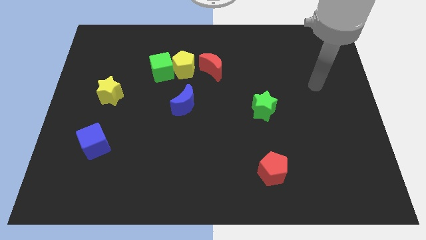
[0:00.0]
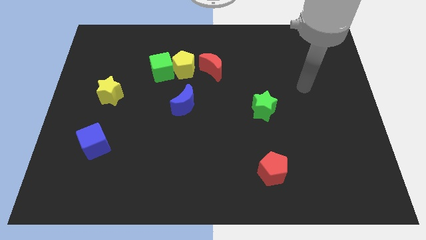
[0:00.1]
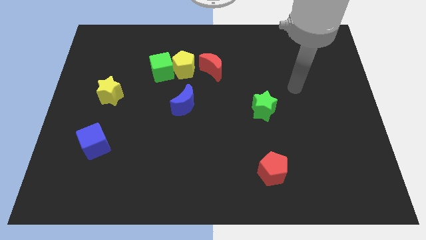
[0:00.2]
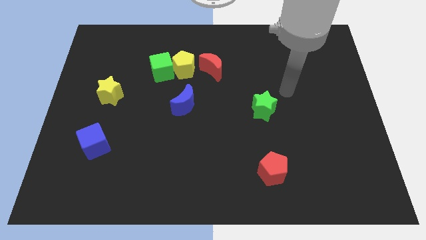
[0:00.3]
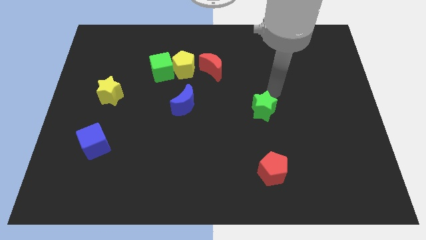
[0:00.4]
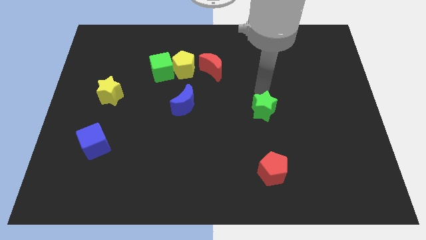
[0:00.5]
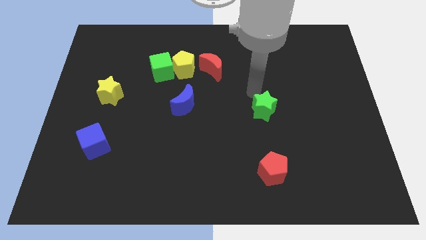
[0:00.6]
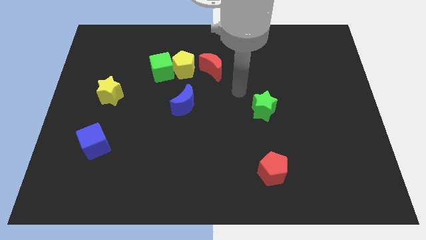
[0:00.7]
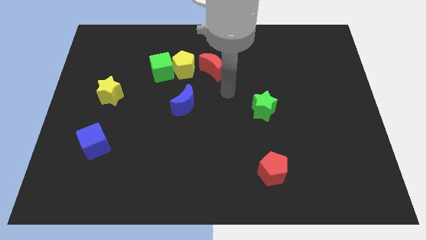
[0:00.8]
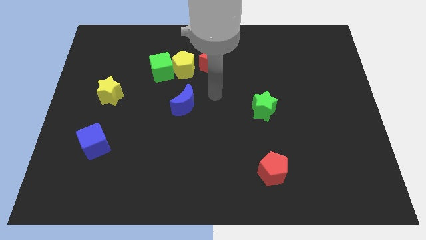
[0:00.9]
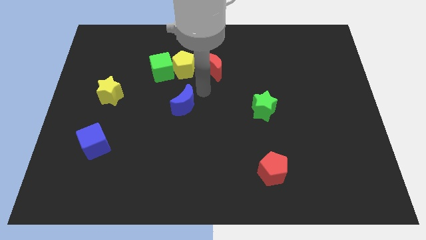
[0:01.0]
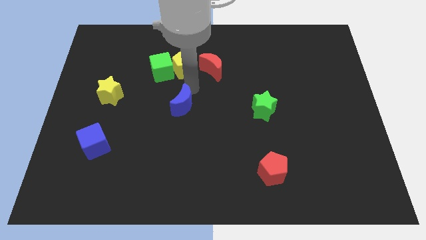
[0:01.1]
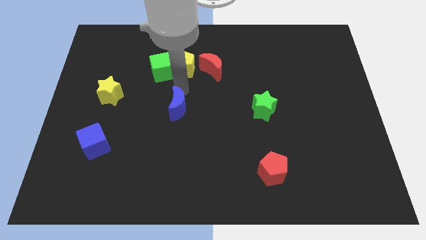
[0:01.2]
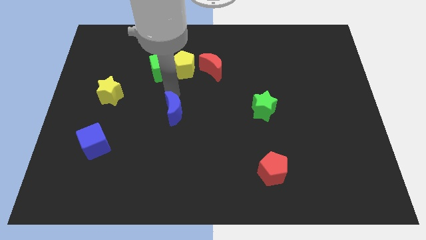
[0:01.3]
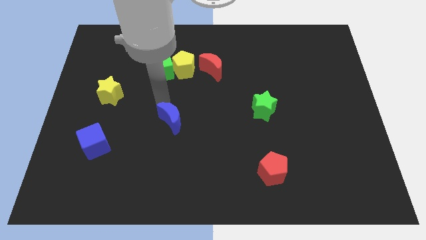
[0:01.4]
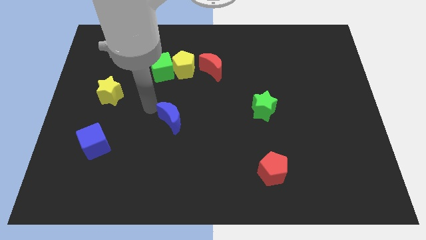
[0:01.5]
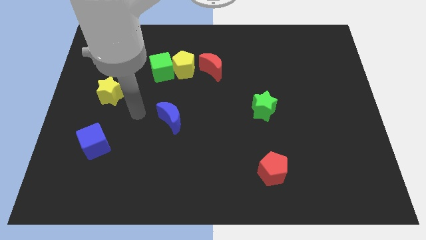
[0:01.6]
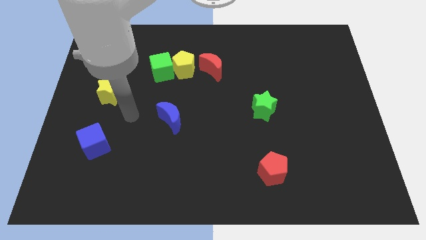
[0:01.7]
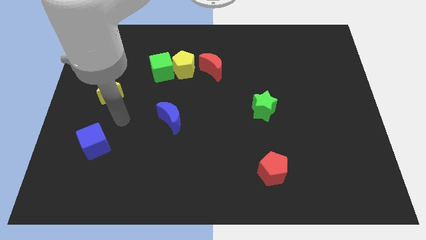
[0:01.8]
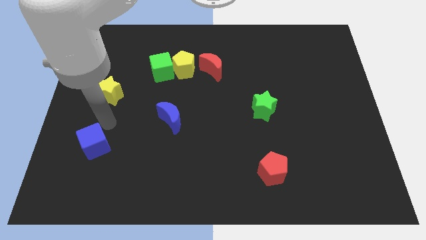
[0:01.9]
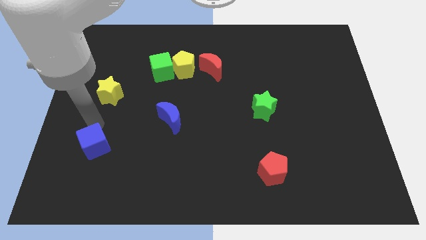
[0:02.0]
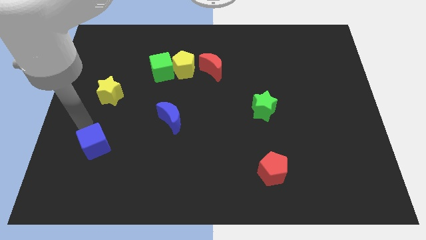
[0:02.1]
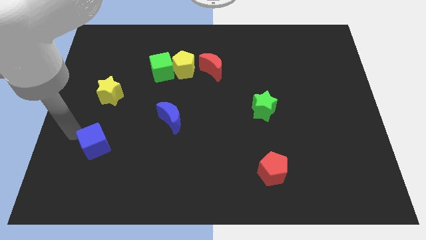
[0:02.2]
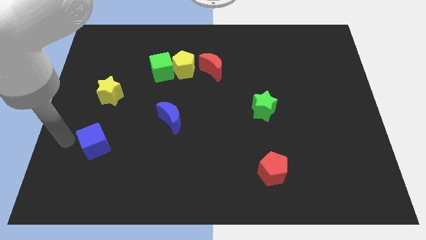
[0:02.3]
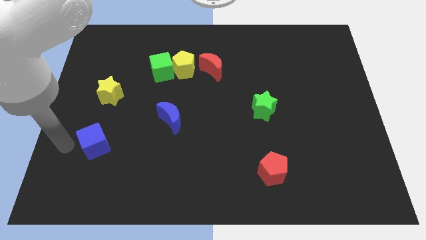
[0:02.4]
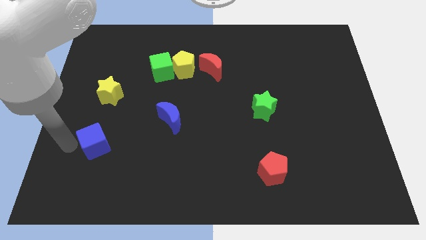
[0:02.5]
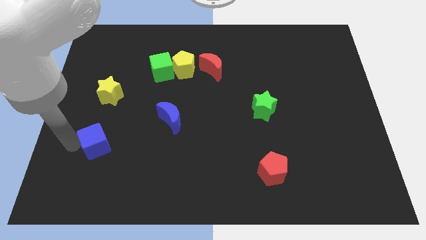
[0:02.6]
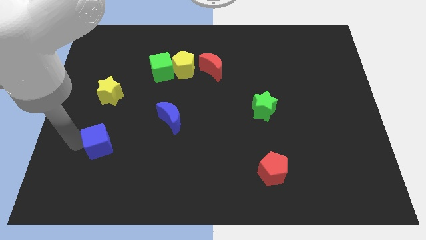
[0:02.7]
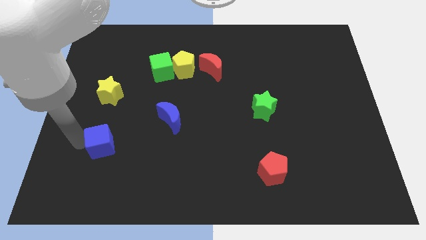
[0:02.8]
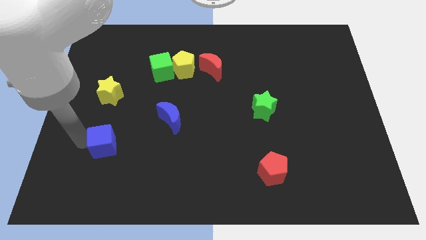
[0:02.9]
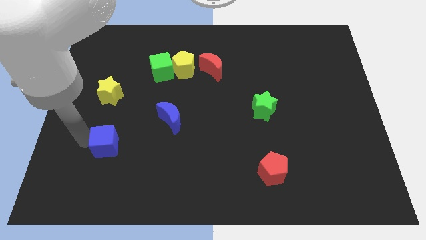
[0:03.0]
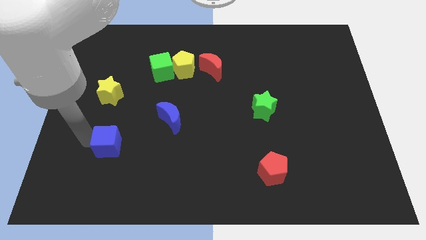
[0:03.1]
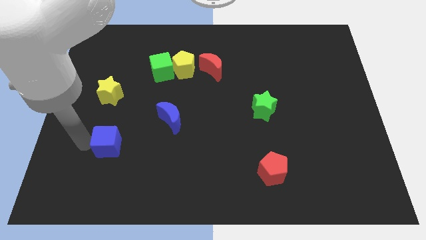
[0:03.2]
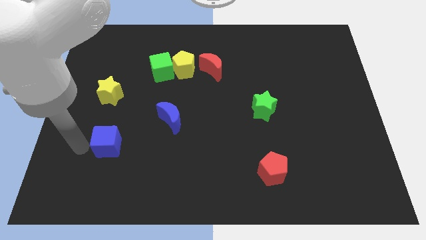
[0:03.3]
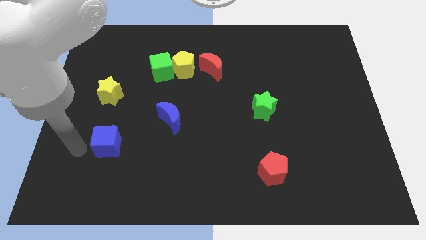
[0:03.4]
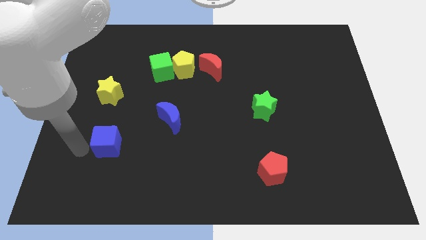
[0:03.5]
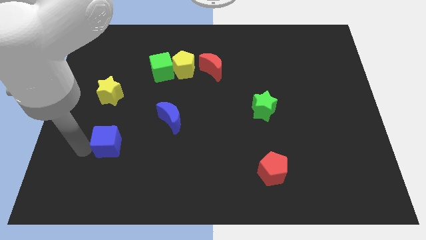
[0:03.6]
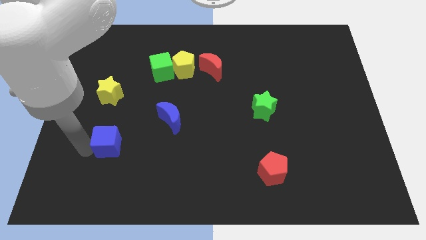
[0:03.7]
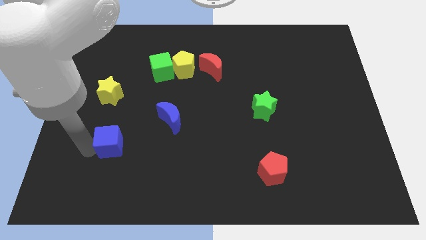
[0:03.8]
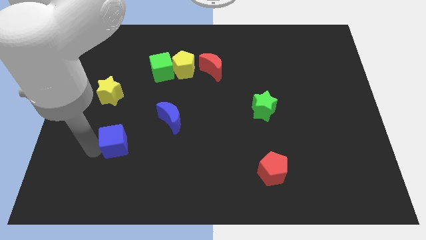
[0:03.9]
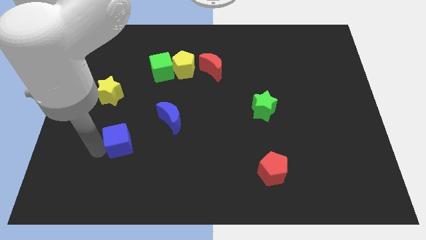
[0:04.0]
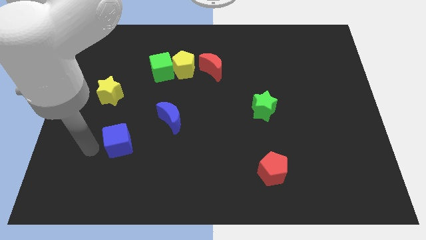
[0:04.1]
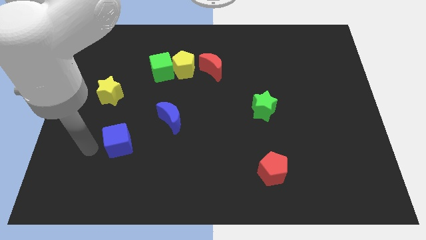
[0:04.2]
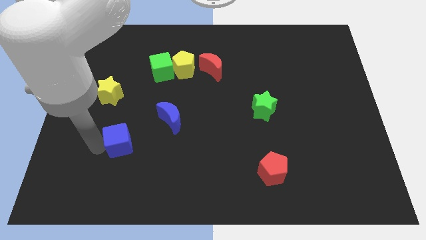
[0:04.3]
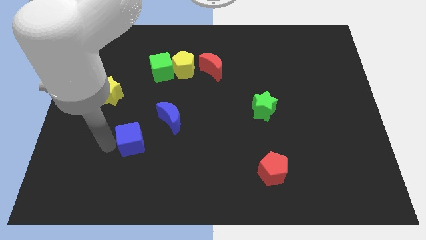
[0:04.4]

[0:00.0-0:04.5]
slide the blue cube to the right a little bit

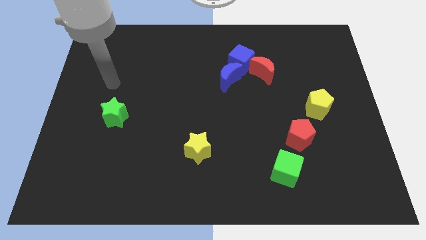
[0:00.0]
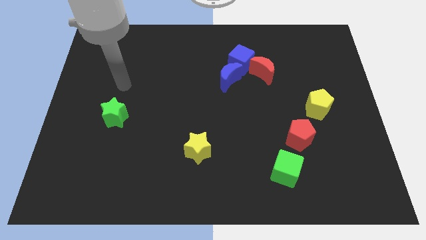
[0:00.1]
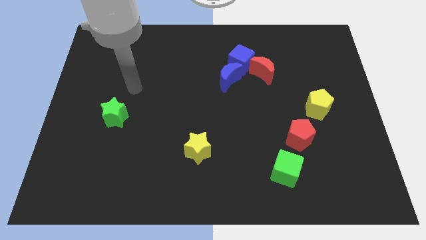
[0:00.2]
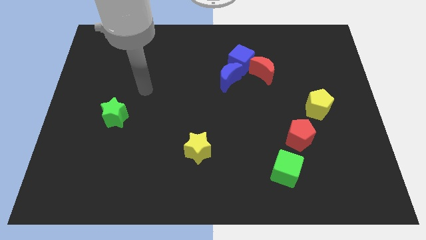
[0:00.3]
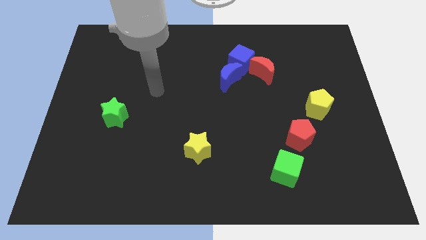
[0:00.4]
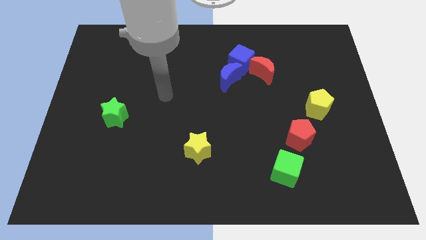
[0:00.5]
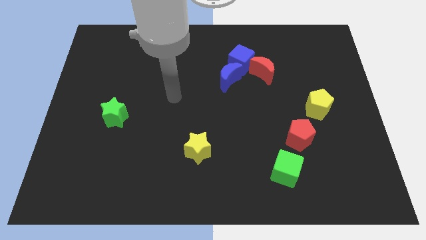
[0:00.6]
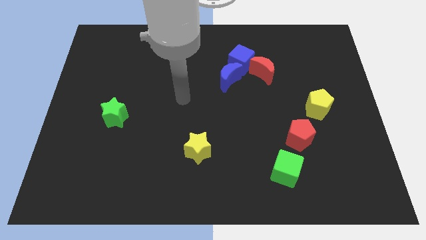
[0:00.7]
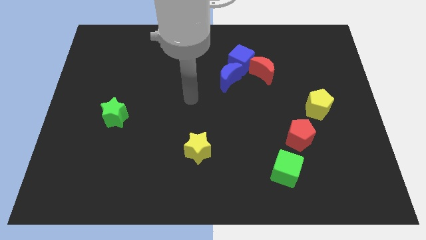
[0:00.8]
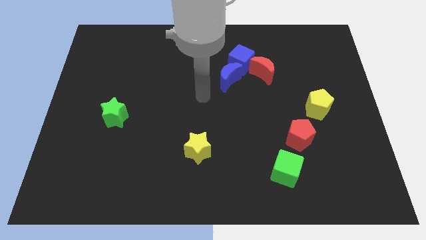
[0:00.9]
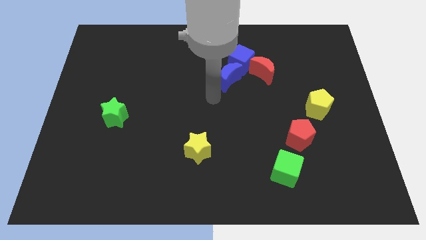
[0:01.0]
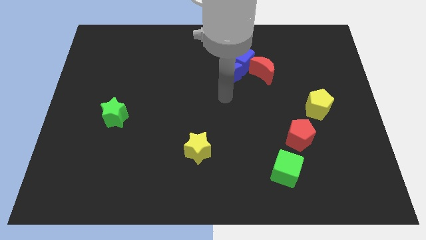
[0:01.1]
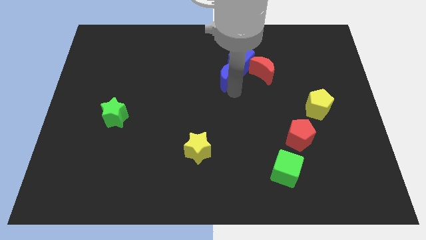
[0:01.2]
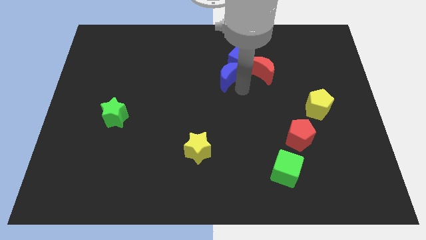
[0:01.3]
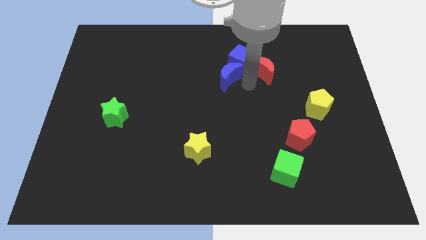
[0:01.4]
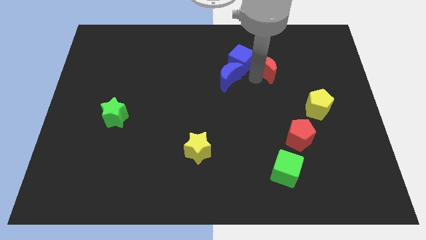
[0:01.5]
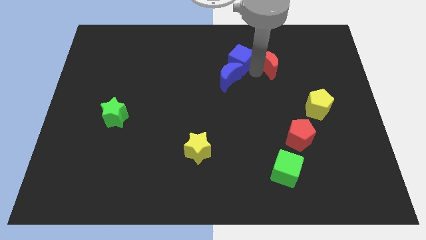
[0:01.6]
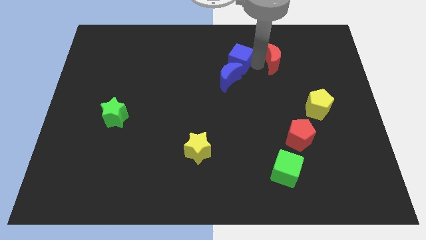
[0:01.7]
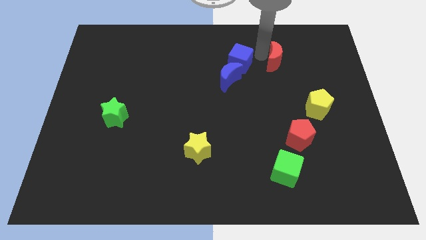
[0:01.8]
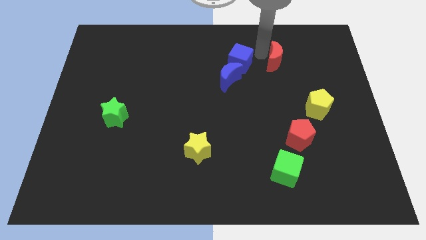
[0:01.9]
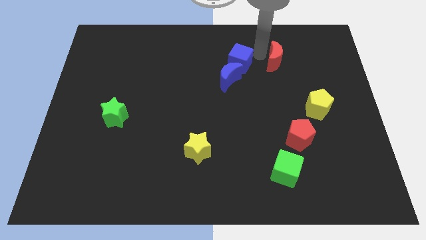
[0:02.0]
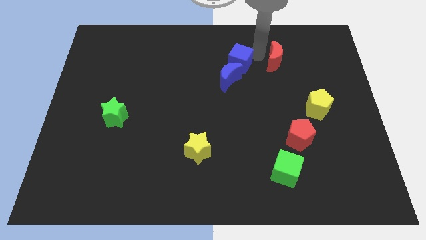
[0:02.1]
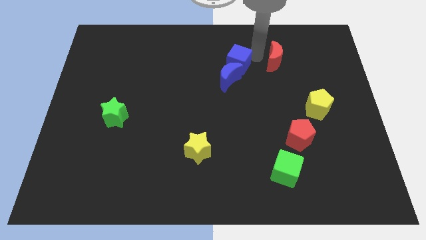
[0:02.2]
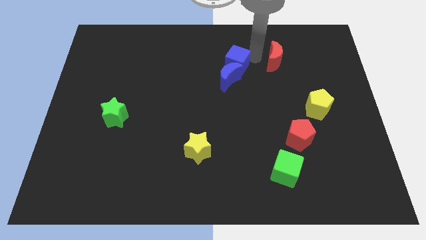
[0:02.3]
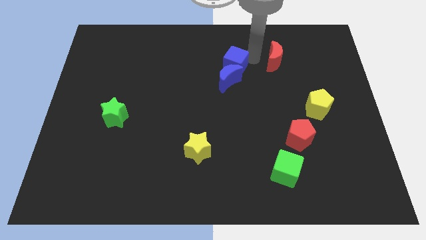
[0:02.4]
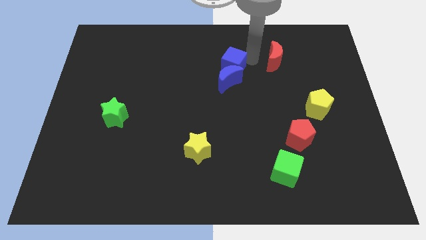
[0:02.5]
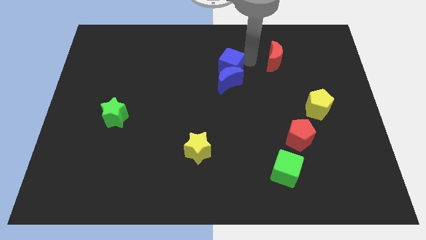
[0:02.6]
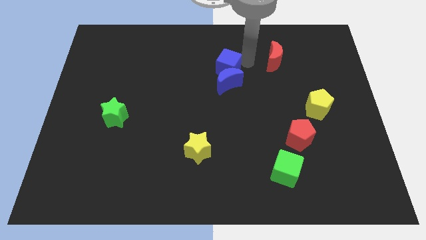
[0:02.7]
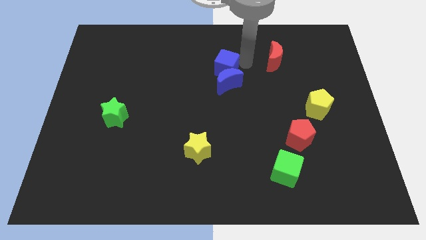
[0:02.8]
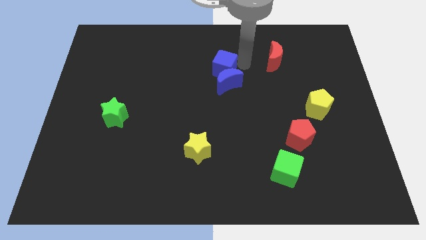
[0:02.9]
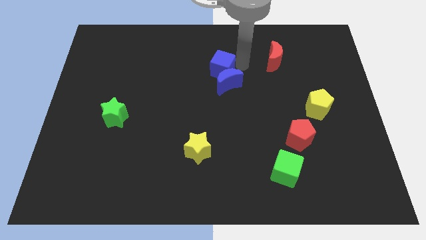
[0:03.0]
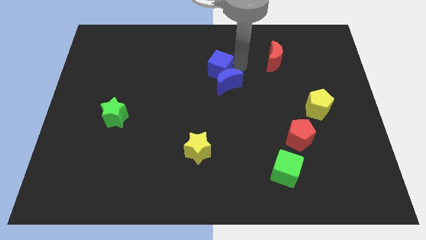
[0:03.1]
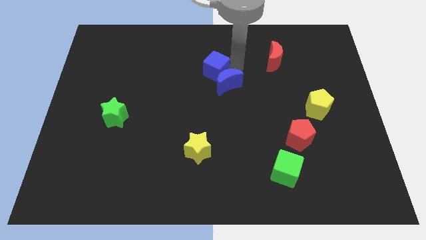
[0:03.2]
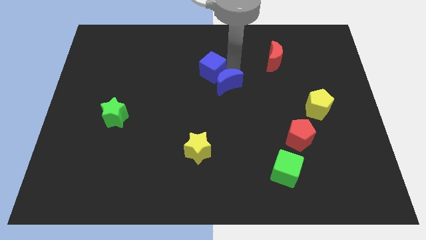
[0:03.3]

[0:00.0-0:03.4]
push the blue cube slightly down and then left

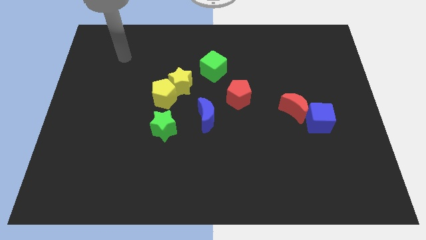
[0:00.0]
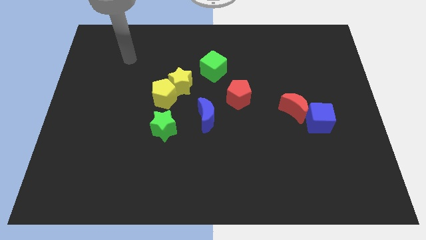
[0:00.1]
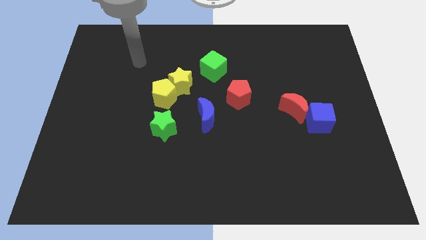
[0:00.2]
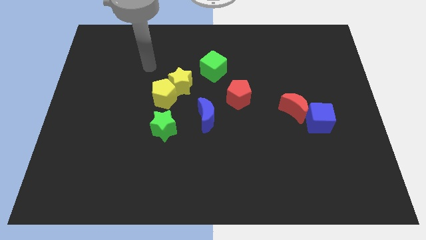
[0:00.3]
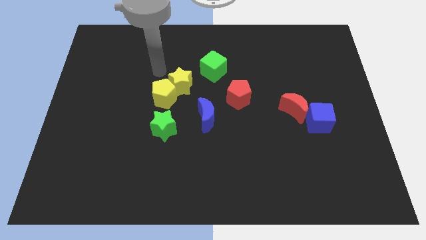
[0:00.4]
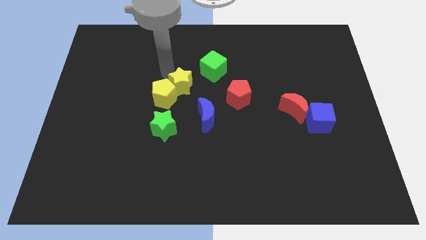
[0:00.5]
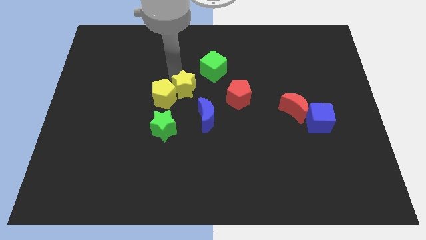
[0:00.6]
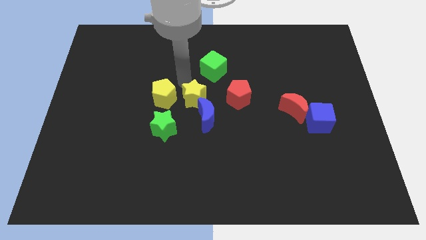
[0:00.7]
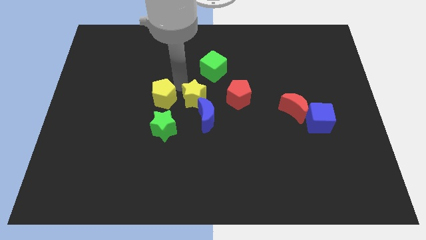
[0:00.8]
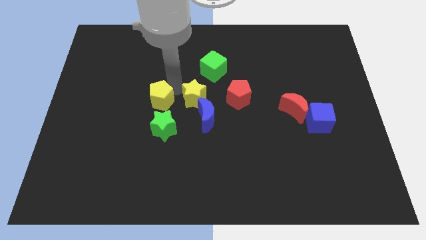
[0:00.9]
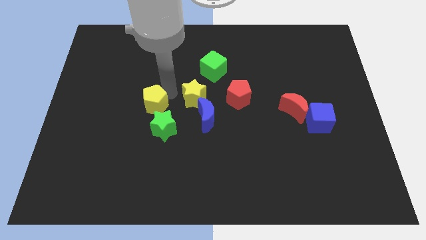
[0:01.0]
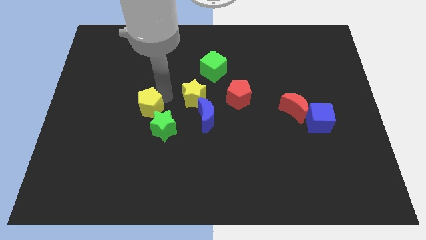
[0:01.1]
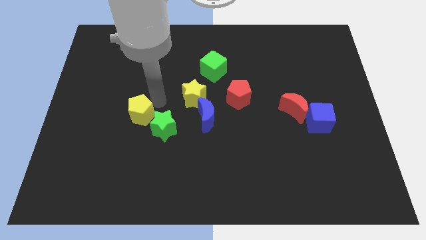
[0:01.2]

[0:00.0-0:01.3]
slide the yellow pentagon a little downwards and then to the left
